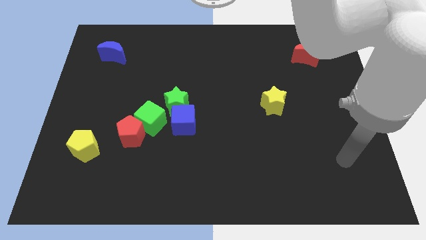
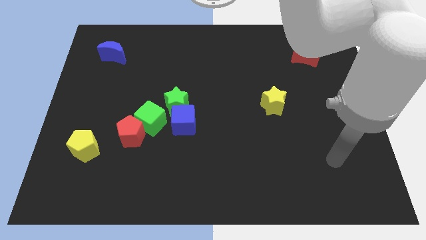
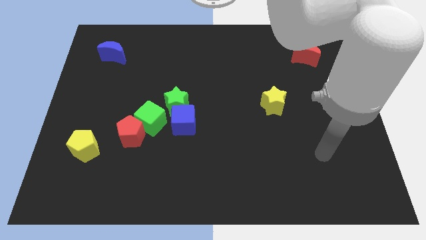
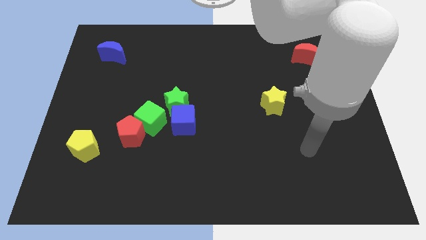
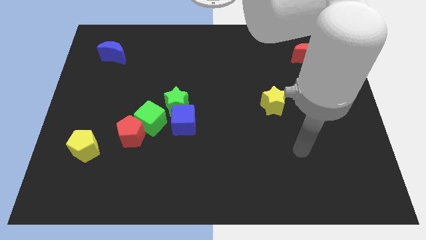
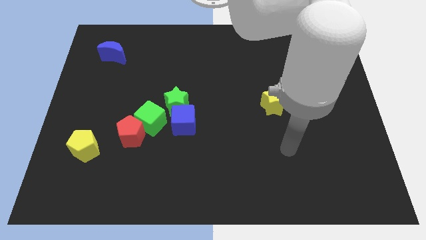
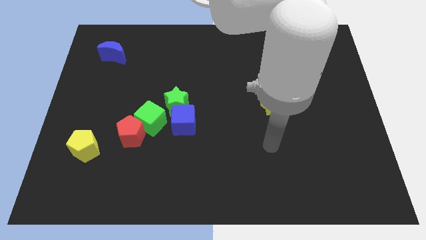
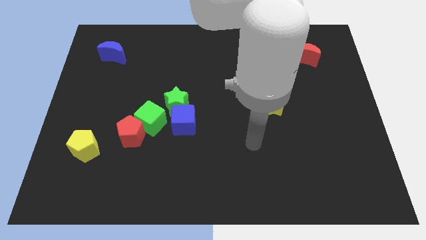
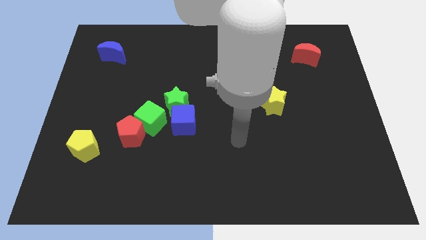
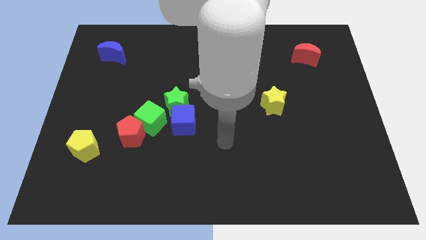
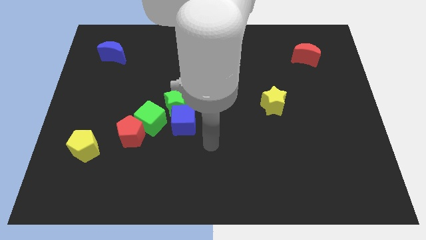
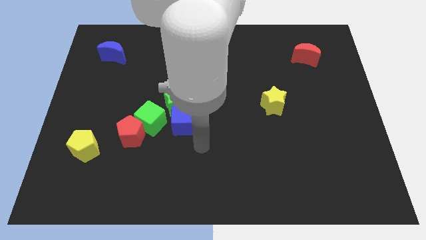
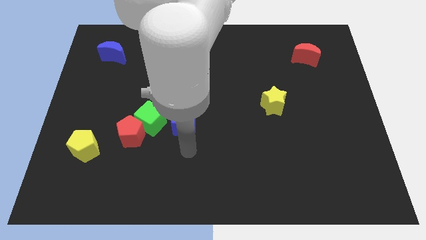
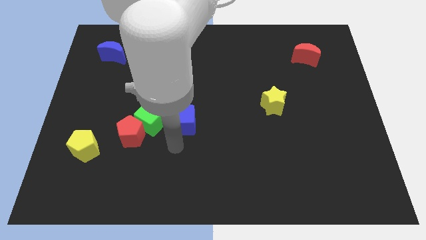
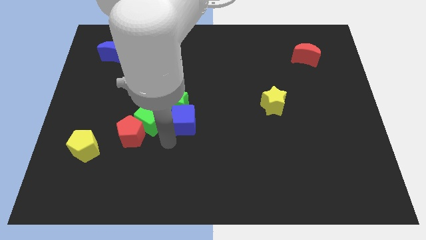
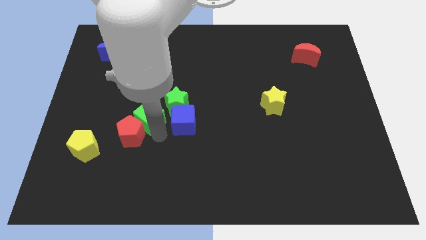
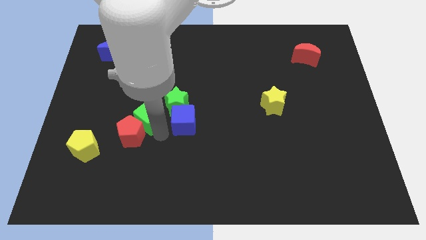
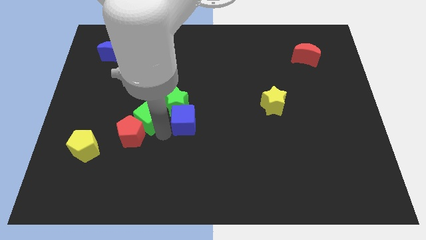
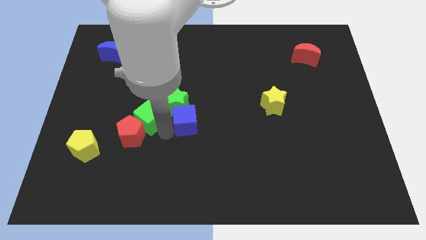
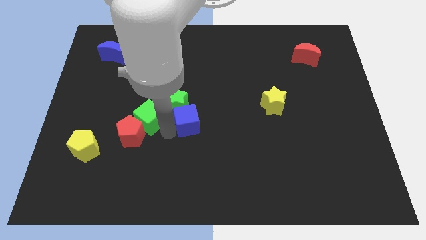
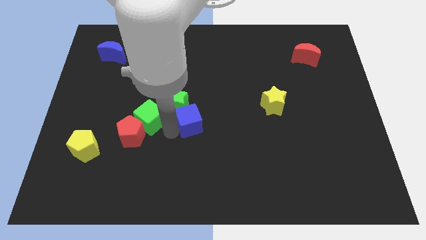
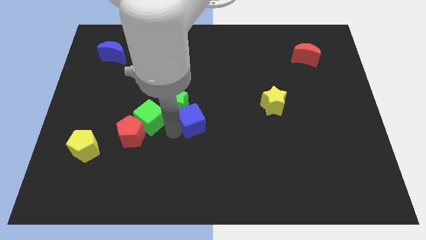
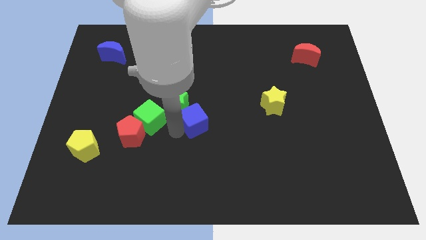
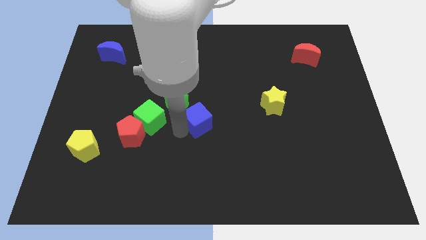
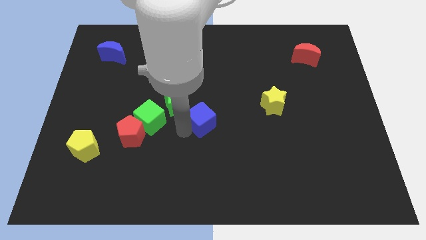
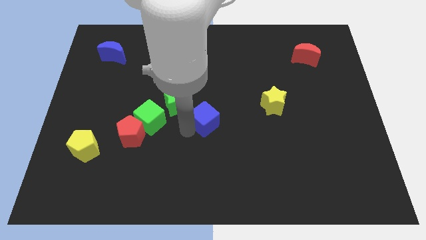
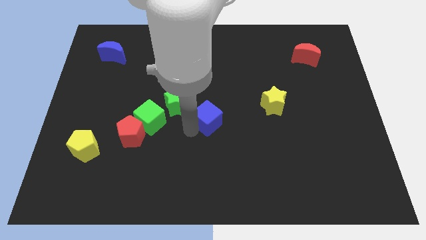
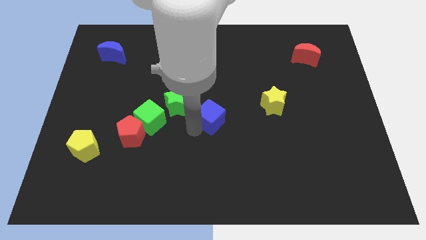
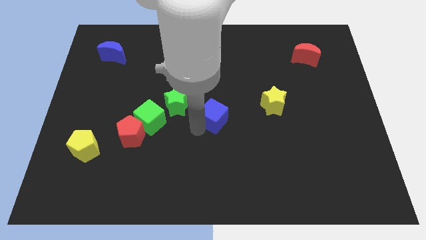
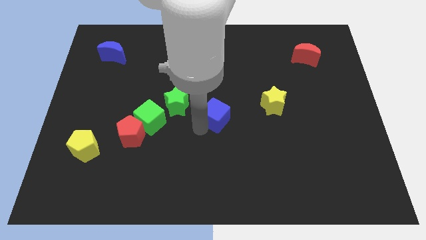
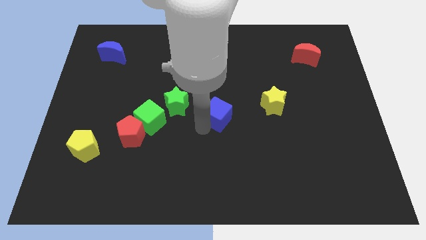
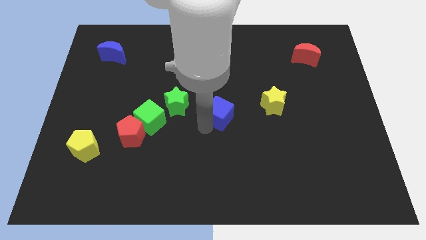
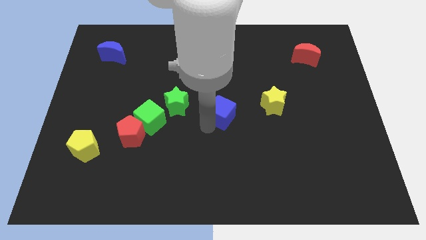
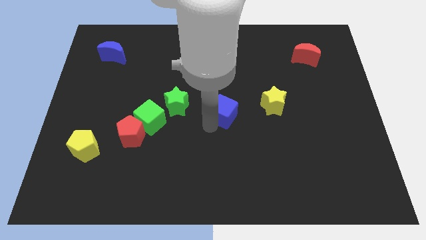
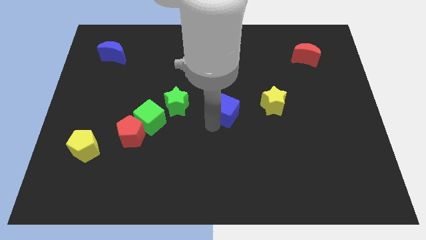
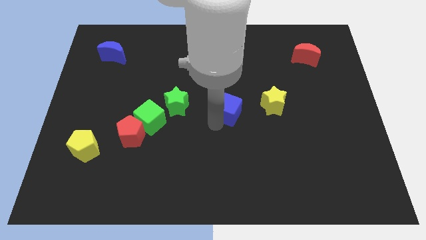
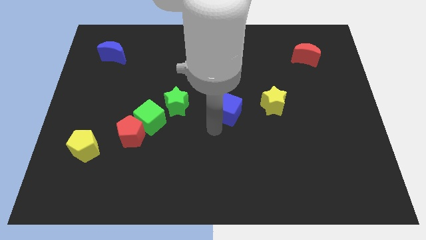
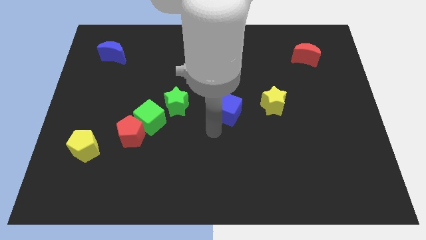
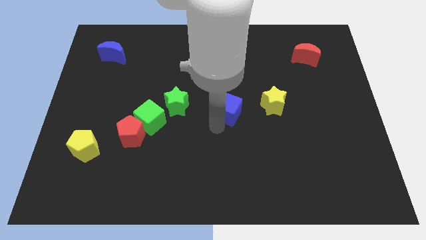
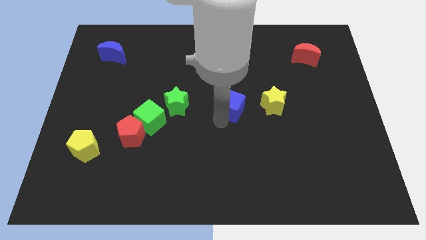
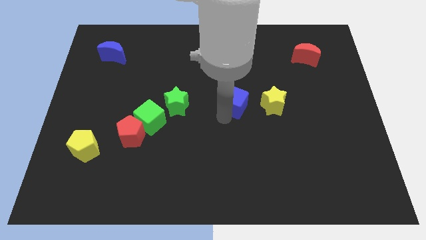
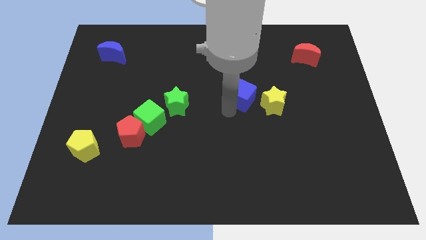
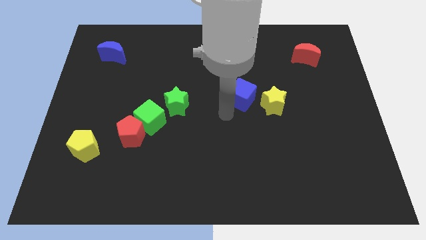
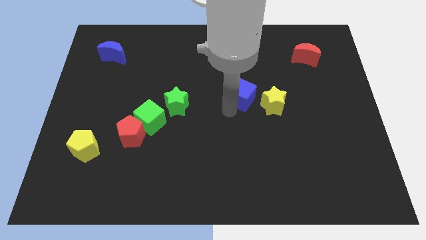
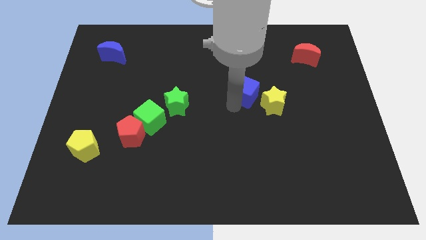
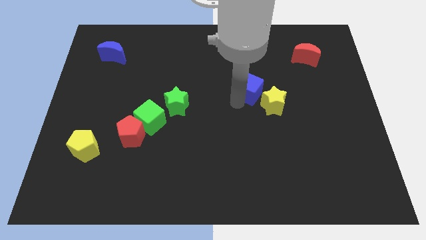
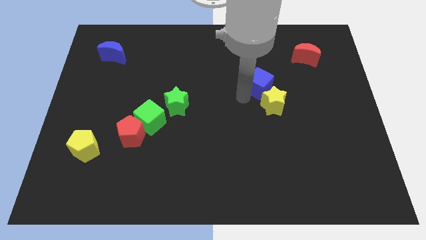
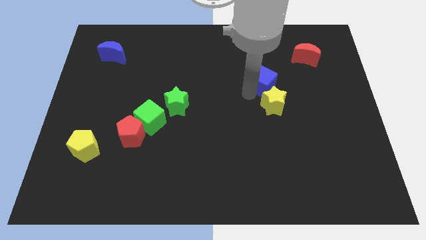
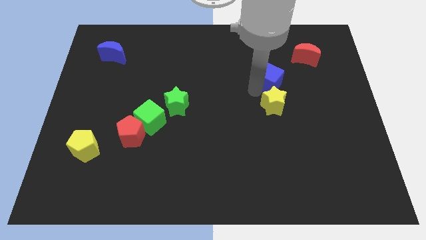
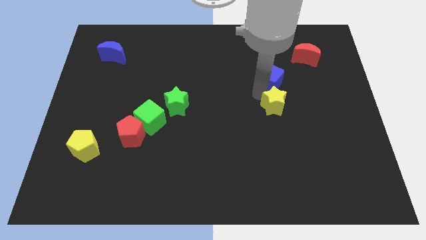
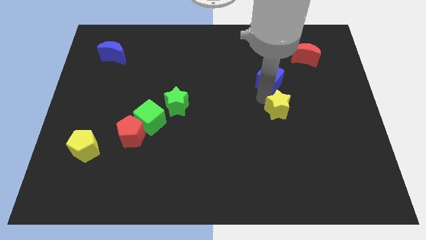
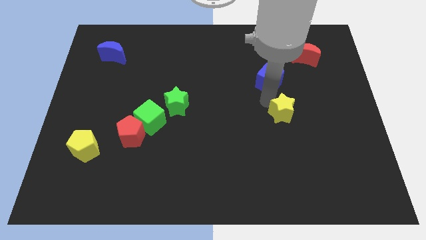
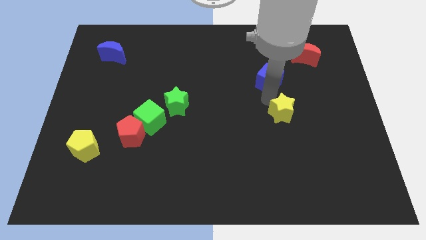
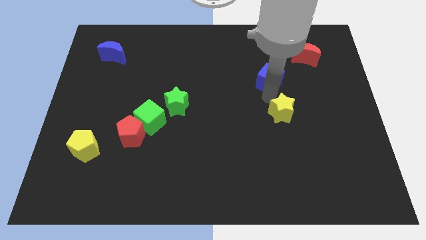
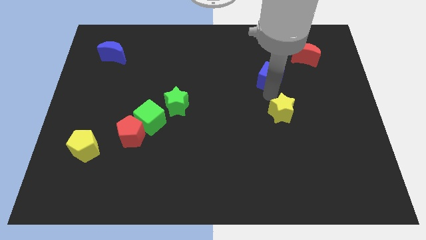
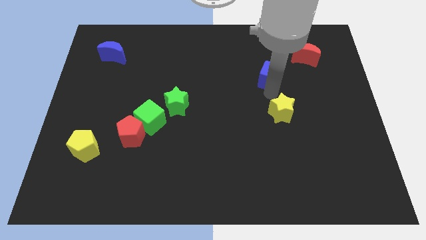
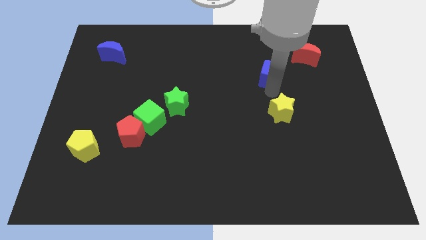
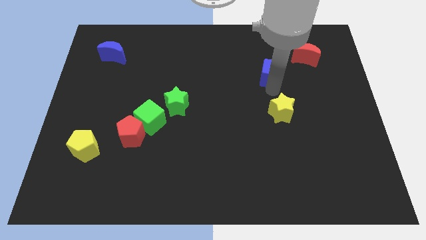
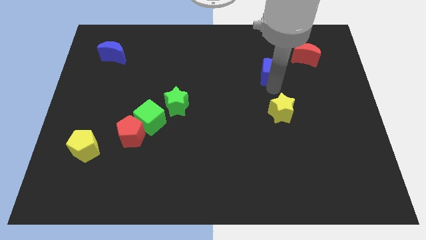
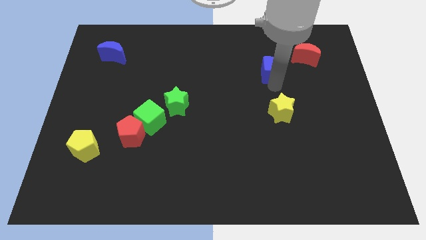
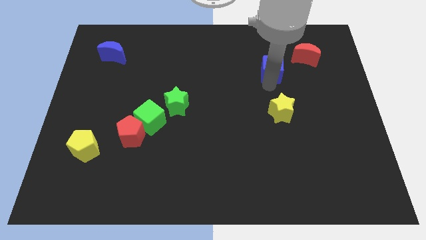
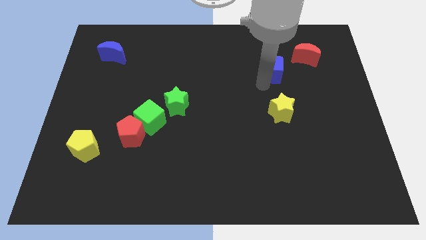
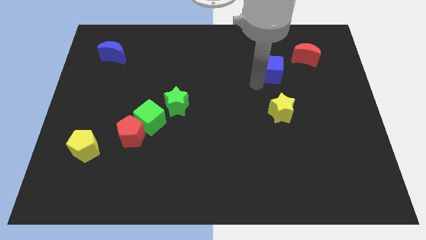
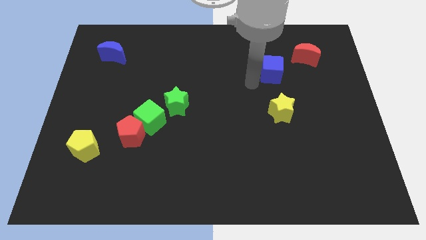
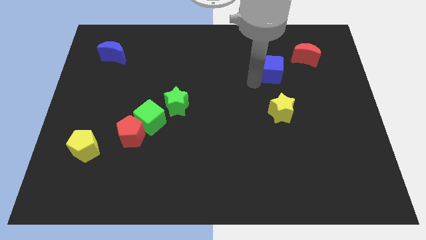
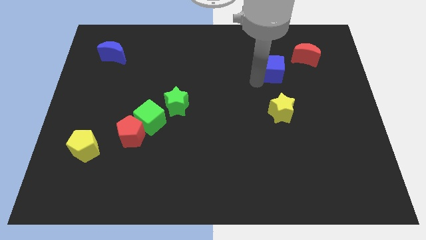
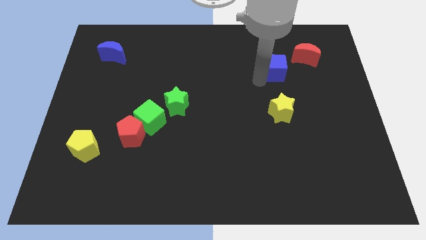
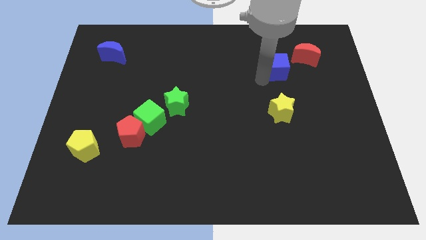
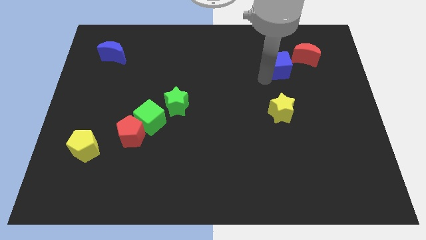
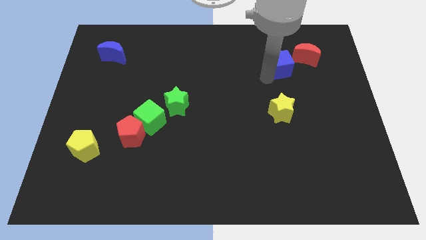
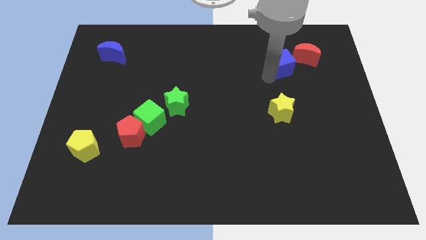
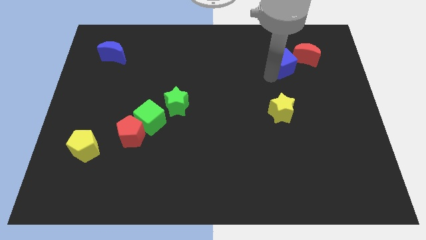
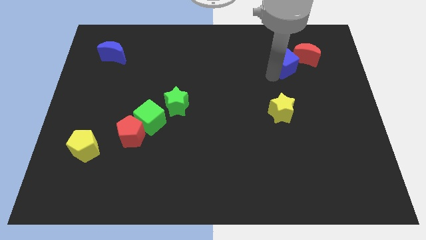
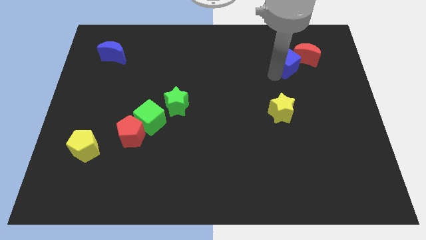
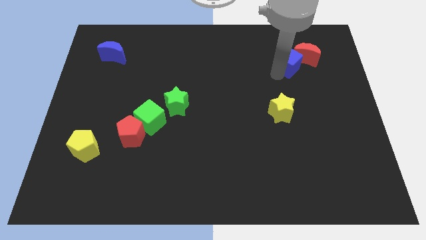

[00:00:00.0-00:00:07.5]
move the blue cube to the red moon
